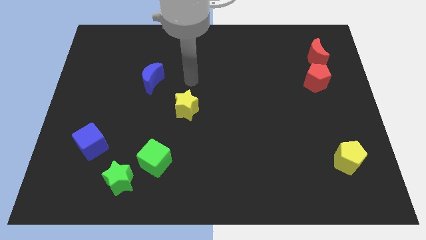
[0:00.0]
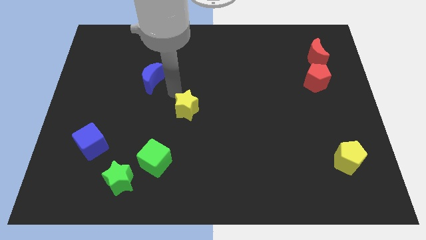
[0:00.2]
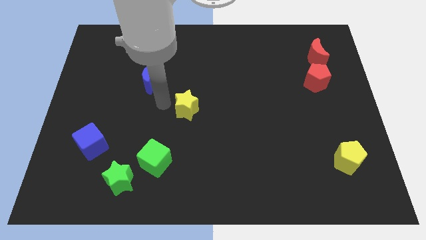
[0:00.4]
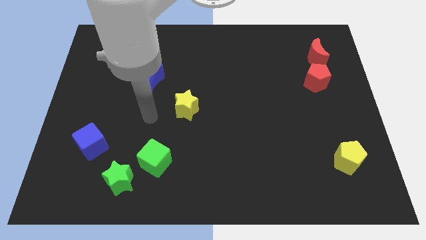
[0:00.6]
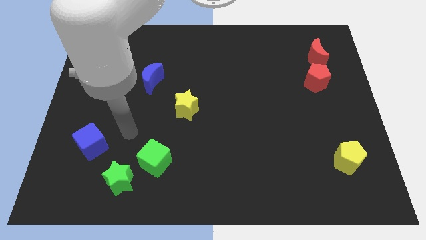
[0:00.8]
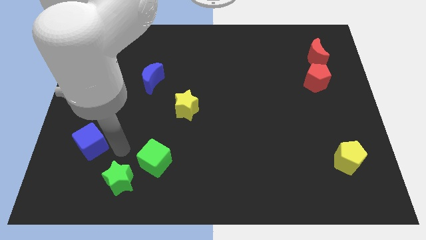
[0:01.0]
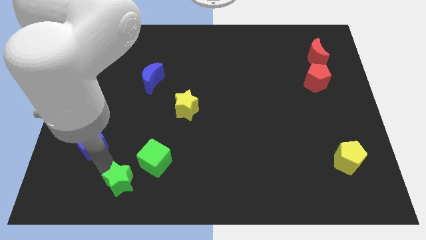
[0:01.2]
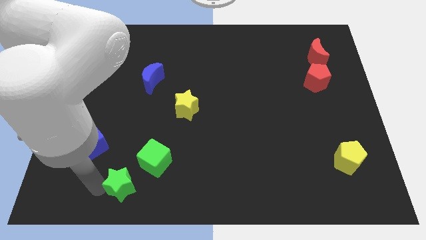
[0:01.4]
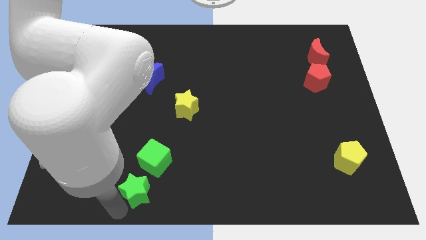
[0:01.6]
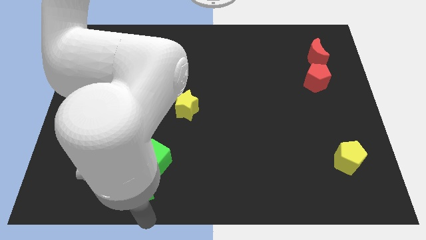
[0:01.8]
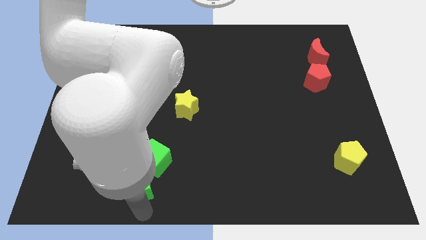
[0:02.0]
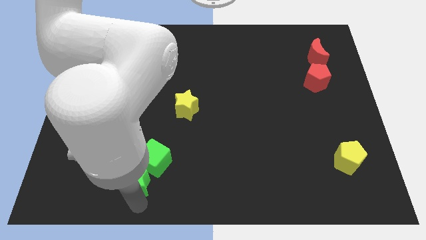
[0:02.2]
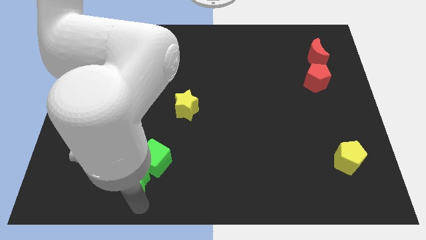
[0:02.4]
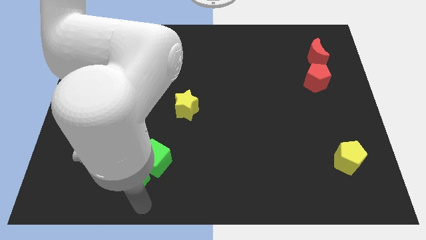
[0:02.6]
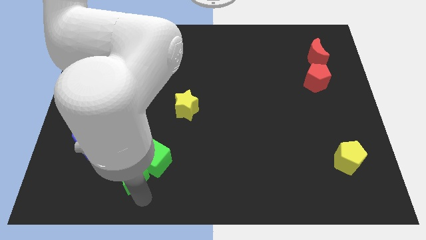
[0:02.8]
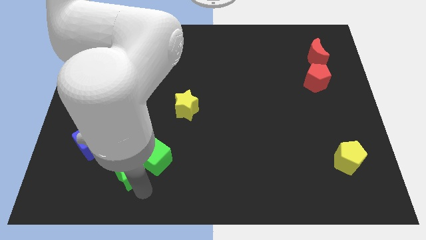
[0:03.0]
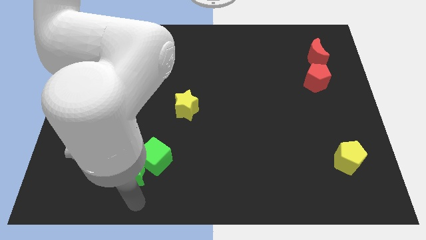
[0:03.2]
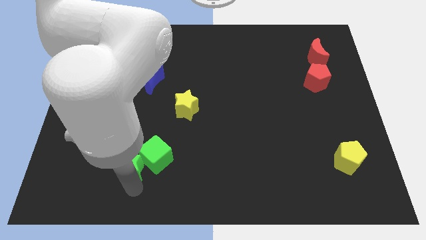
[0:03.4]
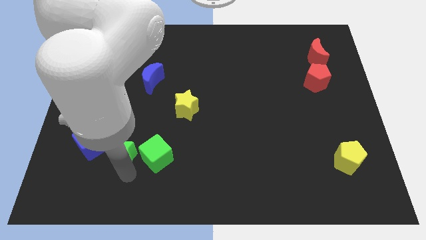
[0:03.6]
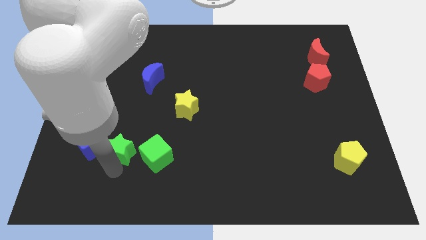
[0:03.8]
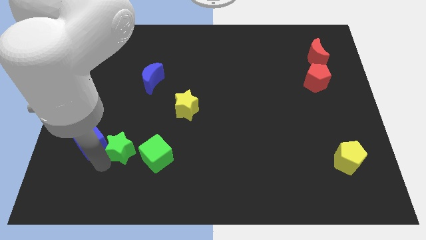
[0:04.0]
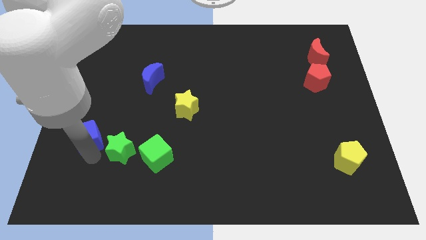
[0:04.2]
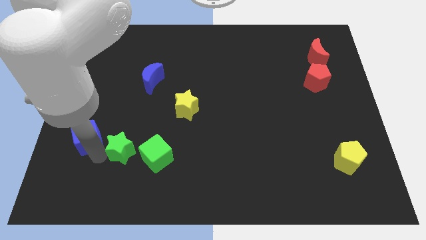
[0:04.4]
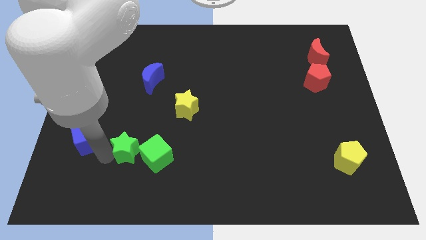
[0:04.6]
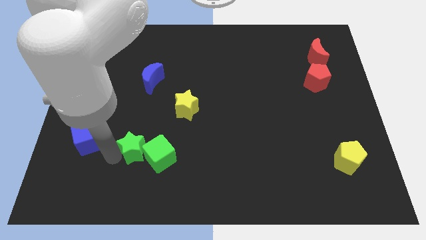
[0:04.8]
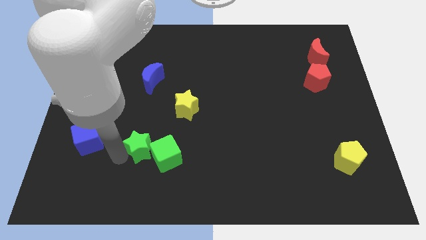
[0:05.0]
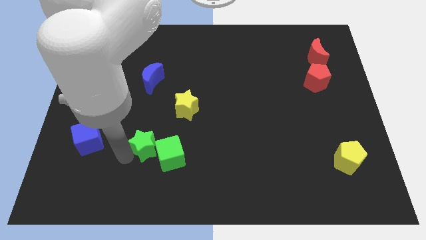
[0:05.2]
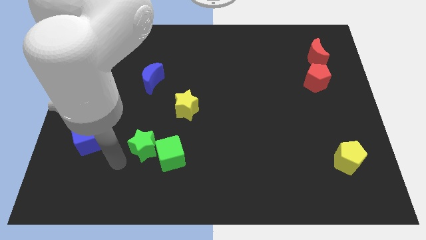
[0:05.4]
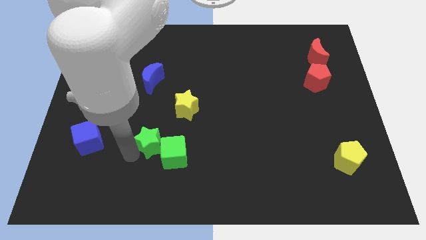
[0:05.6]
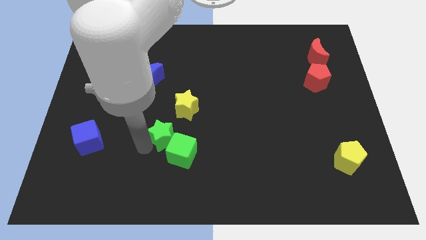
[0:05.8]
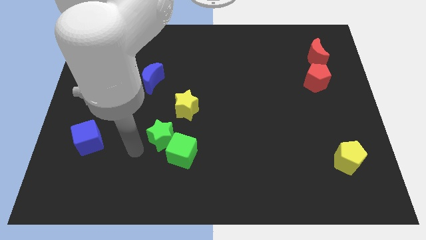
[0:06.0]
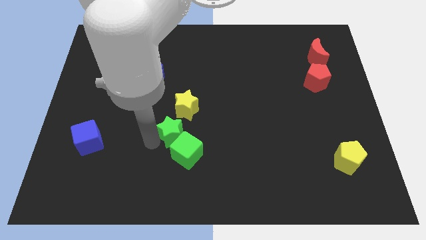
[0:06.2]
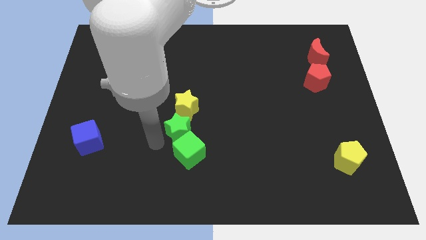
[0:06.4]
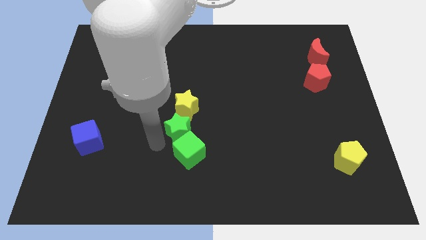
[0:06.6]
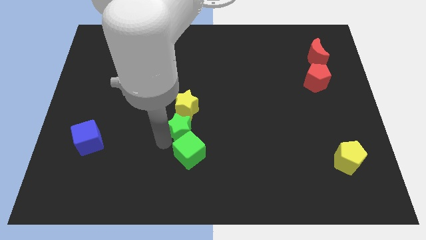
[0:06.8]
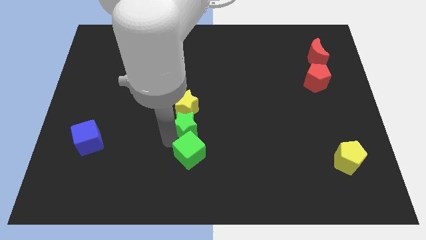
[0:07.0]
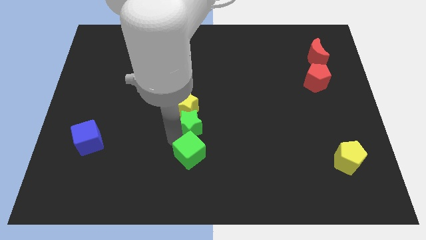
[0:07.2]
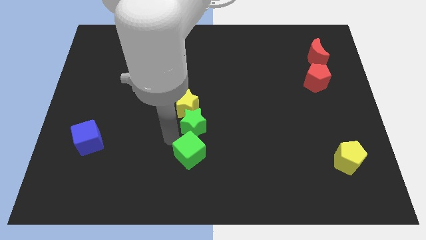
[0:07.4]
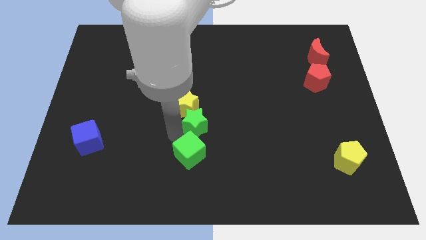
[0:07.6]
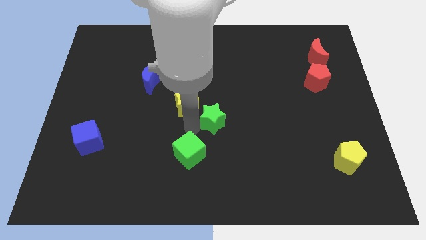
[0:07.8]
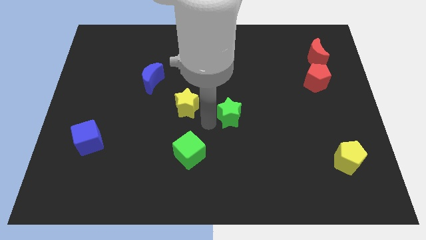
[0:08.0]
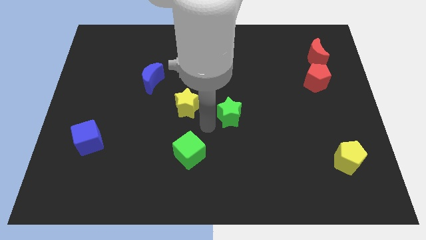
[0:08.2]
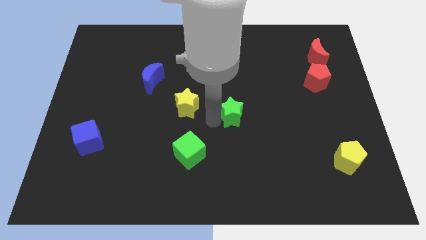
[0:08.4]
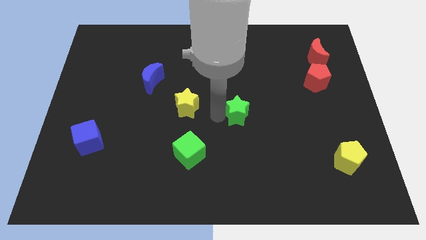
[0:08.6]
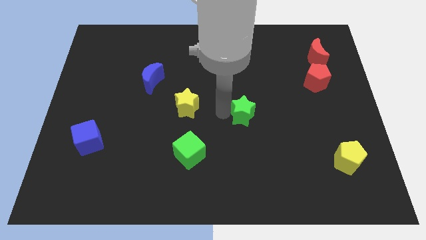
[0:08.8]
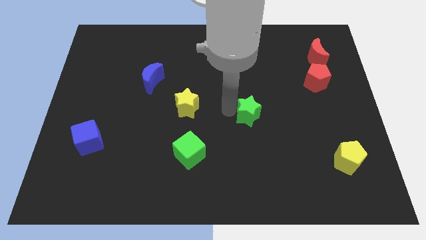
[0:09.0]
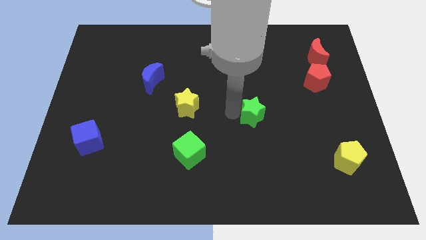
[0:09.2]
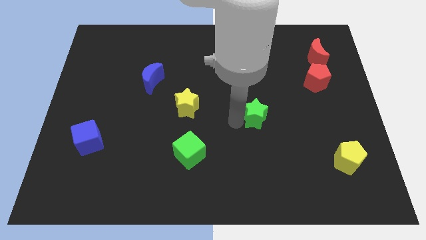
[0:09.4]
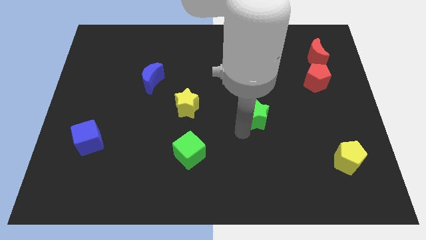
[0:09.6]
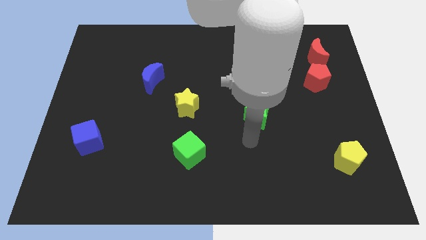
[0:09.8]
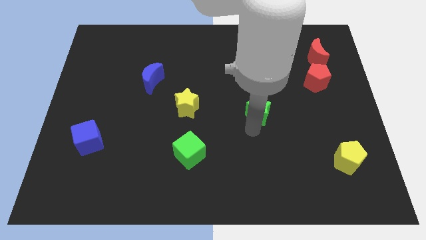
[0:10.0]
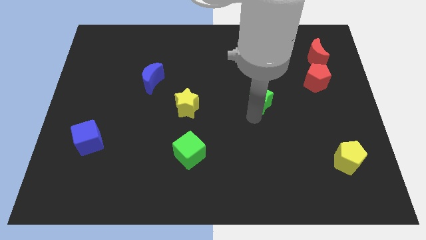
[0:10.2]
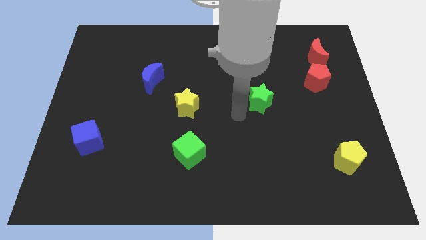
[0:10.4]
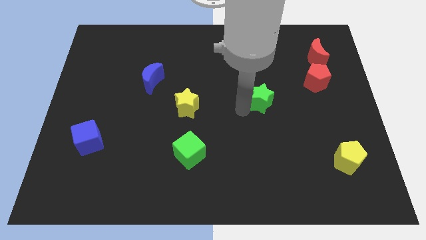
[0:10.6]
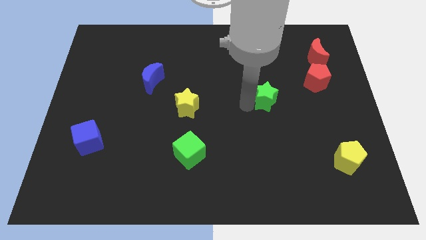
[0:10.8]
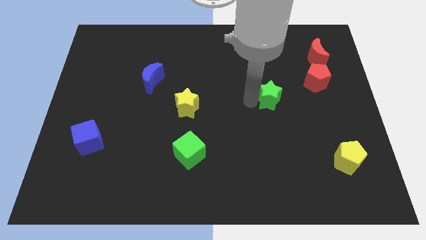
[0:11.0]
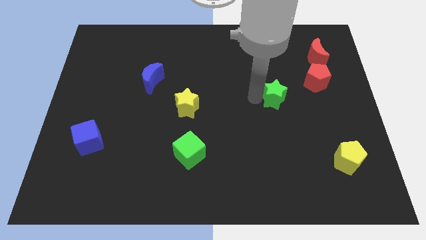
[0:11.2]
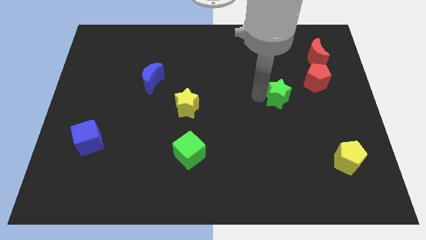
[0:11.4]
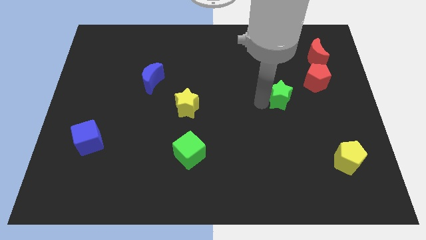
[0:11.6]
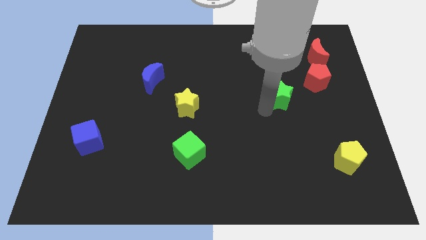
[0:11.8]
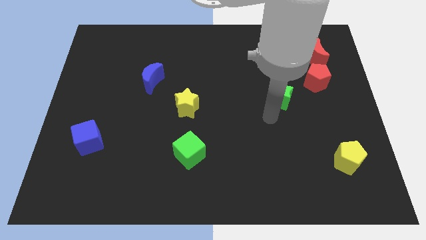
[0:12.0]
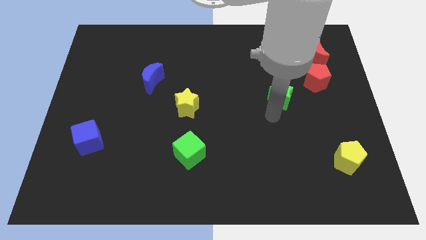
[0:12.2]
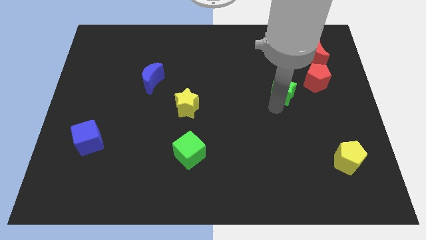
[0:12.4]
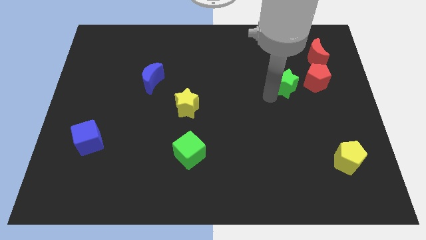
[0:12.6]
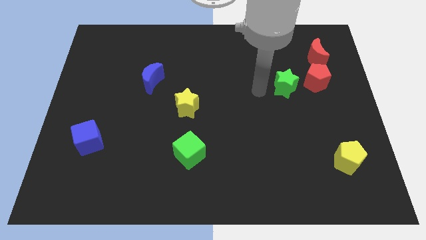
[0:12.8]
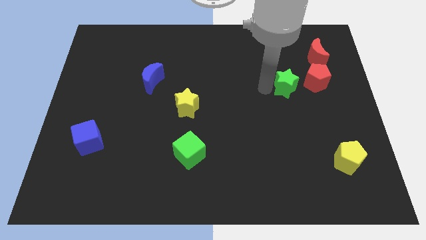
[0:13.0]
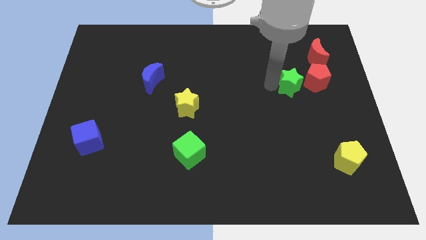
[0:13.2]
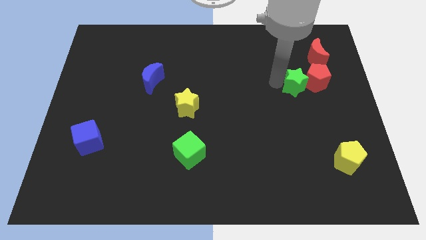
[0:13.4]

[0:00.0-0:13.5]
push the green star close to the red pentagon
